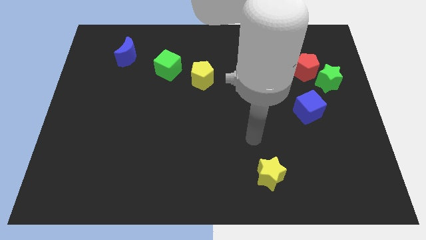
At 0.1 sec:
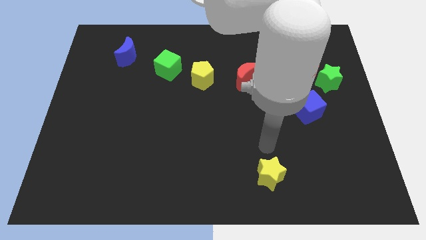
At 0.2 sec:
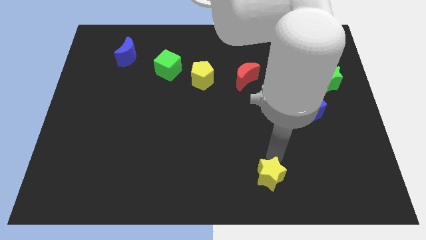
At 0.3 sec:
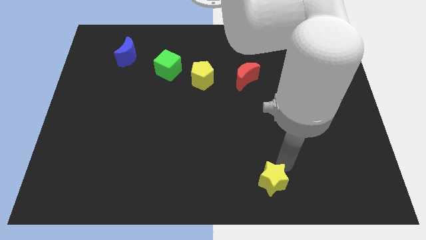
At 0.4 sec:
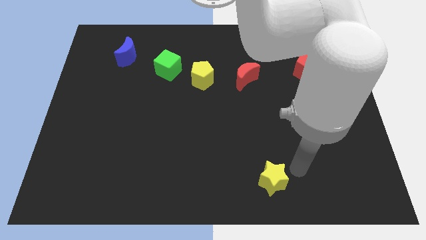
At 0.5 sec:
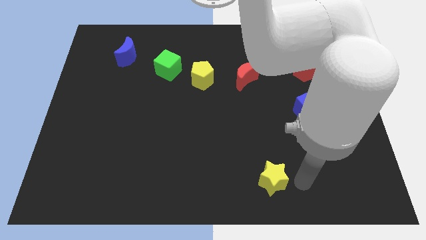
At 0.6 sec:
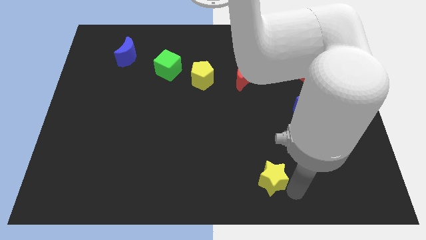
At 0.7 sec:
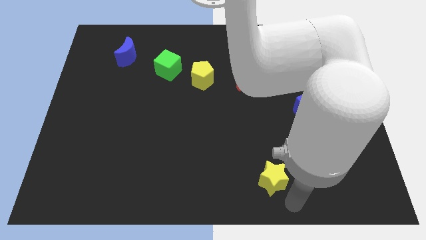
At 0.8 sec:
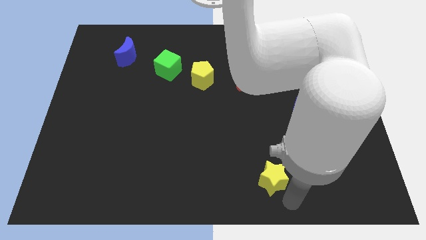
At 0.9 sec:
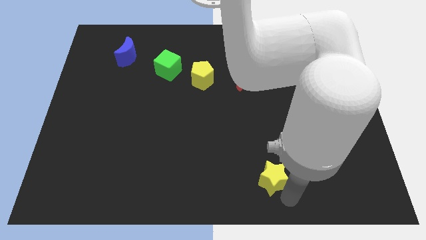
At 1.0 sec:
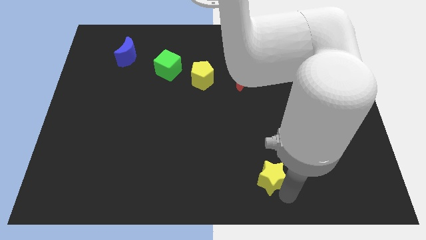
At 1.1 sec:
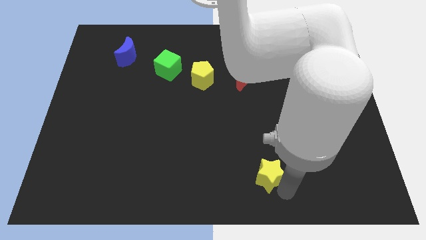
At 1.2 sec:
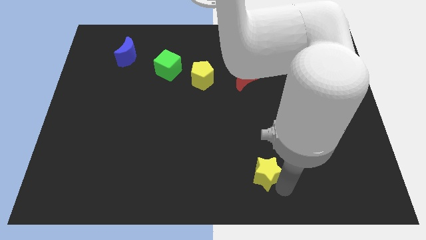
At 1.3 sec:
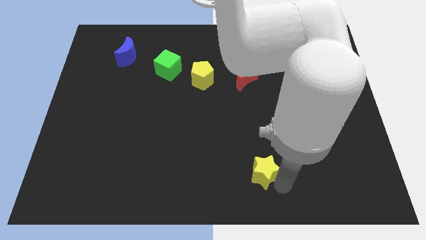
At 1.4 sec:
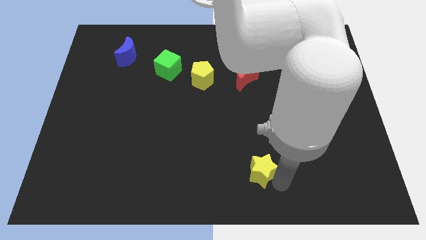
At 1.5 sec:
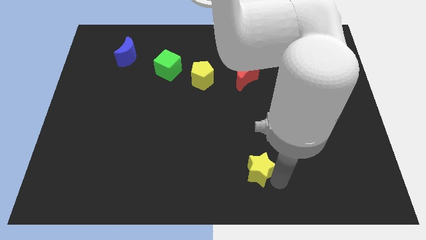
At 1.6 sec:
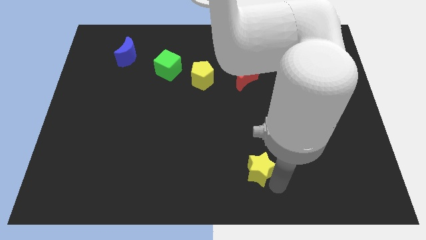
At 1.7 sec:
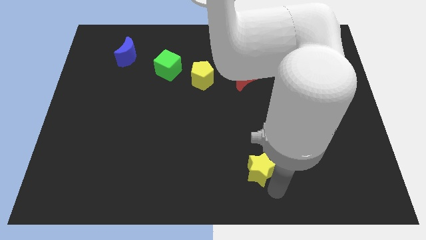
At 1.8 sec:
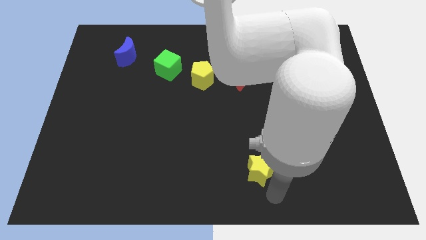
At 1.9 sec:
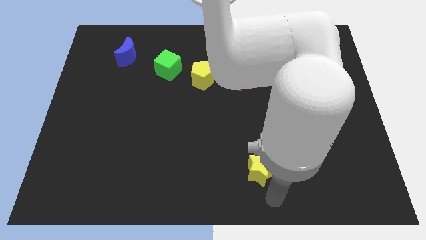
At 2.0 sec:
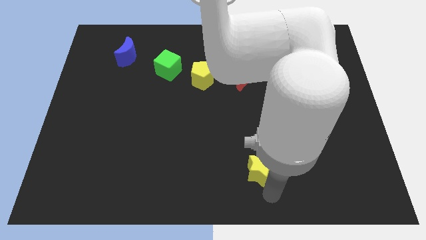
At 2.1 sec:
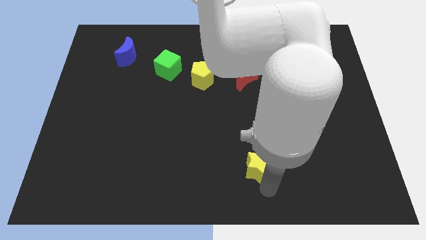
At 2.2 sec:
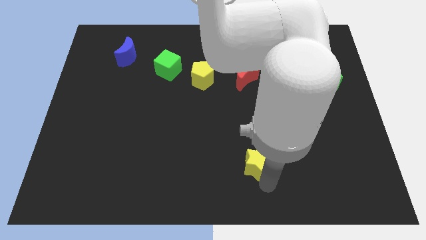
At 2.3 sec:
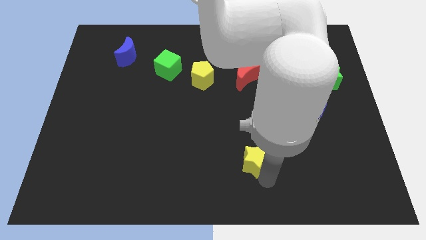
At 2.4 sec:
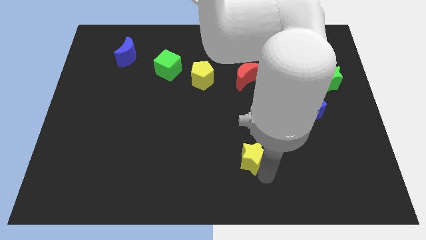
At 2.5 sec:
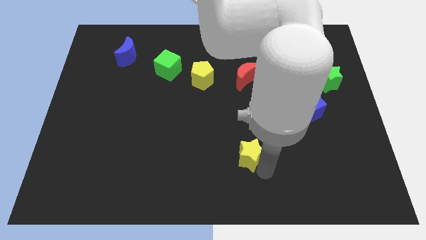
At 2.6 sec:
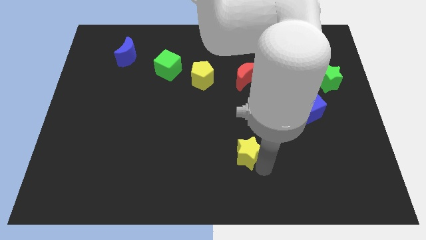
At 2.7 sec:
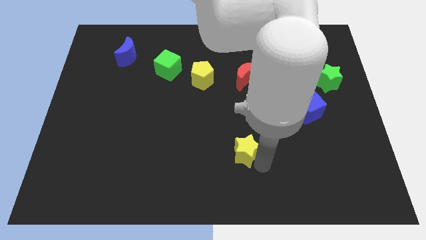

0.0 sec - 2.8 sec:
slide the yellow star upwards and to the left diagonally somewhat

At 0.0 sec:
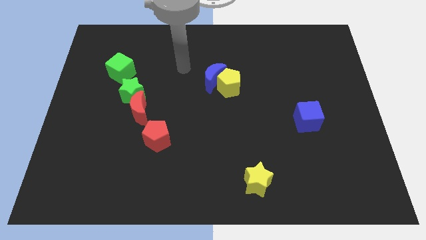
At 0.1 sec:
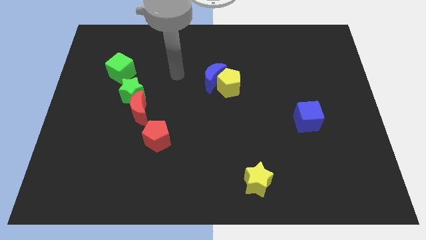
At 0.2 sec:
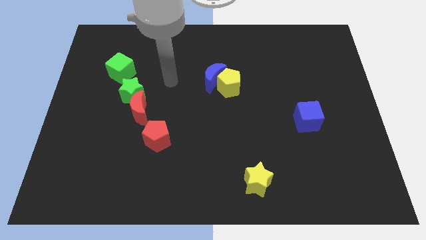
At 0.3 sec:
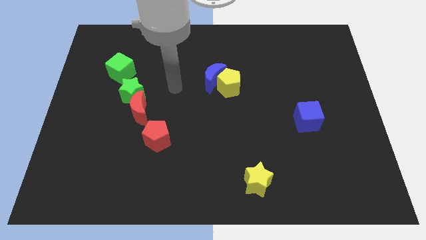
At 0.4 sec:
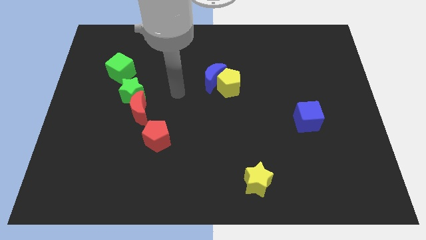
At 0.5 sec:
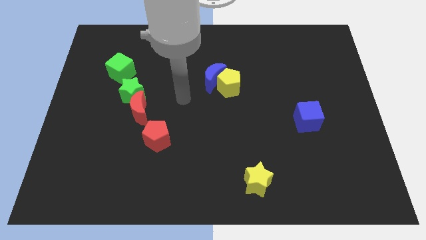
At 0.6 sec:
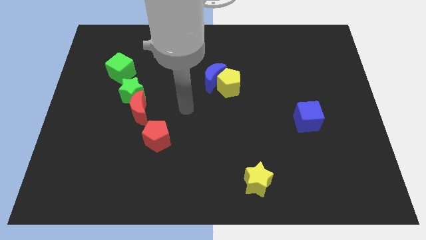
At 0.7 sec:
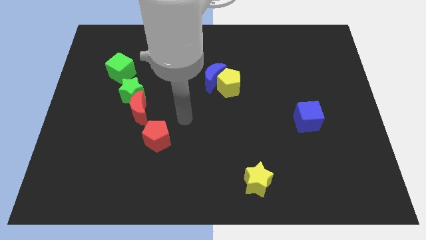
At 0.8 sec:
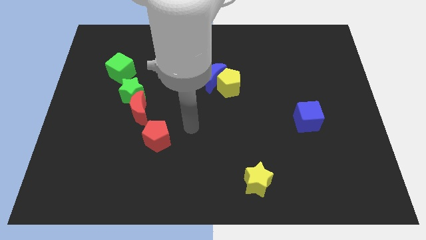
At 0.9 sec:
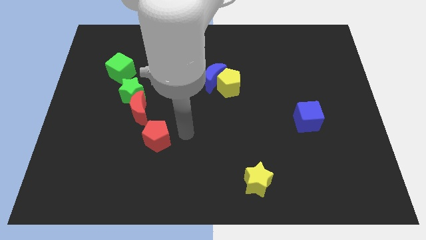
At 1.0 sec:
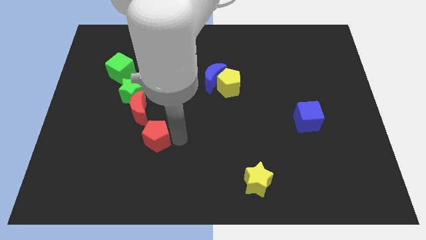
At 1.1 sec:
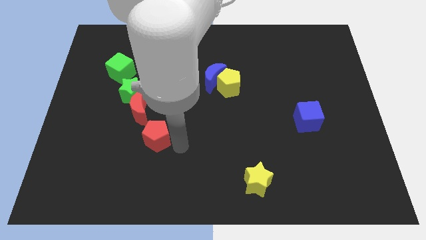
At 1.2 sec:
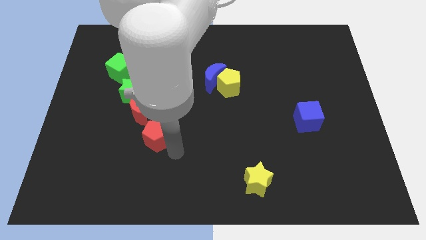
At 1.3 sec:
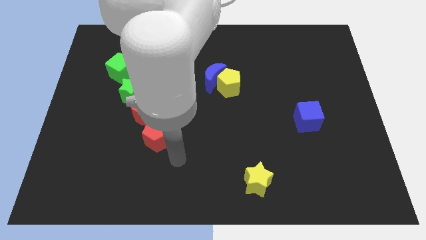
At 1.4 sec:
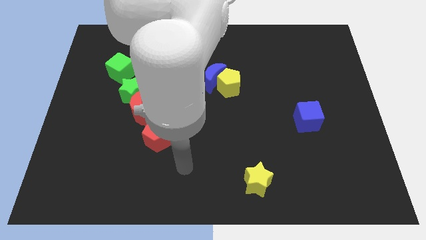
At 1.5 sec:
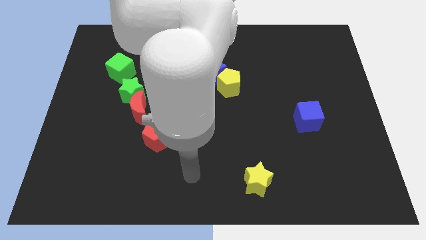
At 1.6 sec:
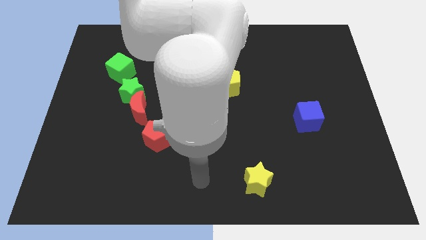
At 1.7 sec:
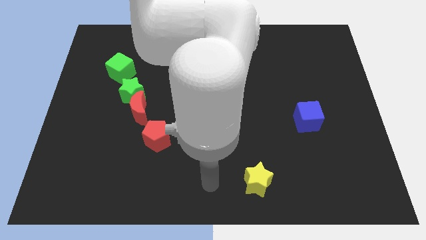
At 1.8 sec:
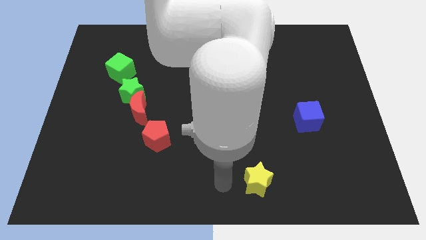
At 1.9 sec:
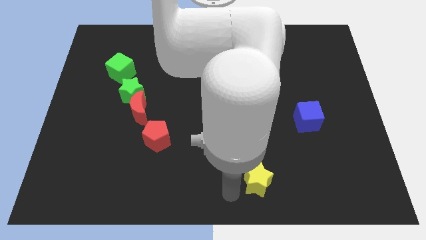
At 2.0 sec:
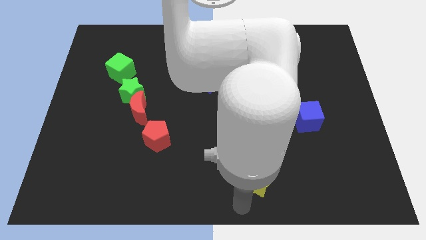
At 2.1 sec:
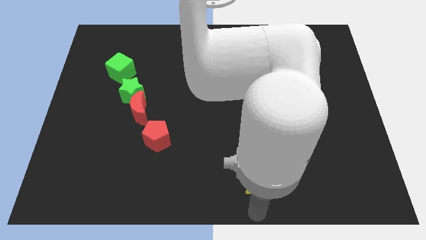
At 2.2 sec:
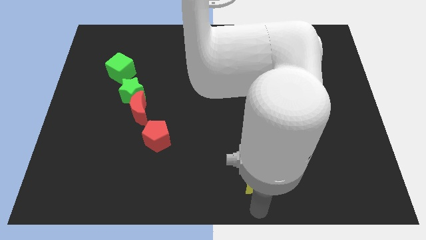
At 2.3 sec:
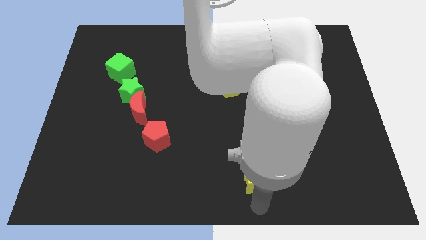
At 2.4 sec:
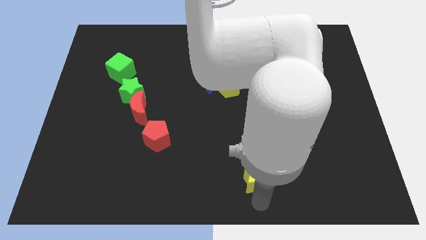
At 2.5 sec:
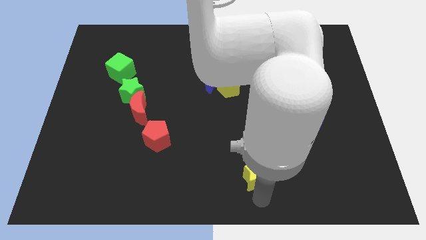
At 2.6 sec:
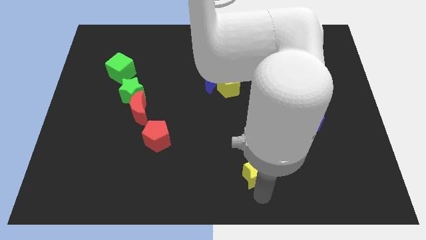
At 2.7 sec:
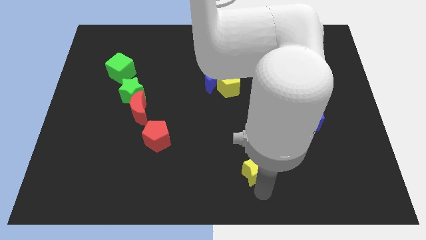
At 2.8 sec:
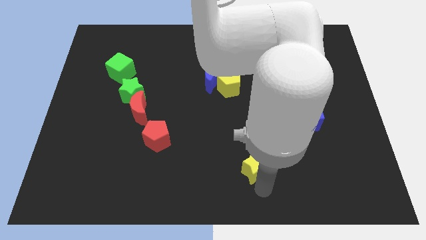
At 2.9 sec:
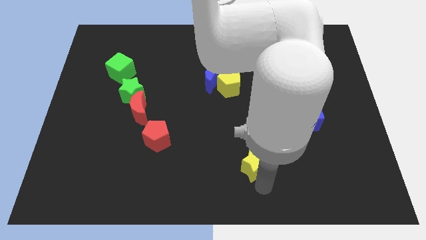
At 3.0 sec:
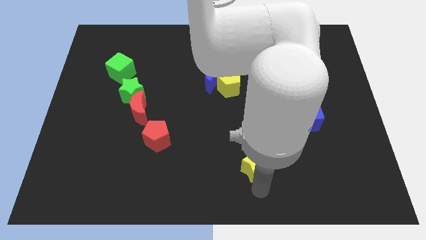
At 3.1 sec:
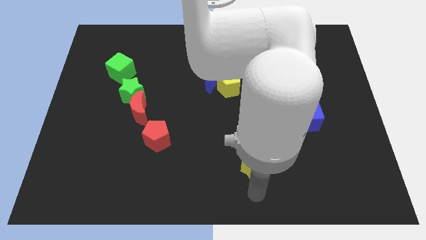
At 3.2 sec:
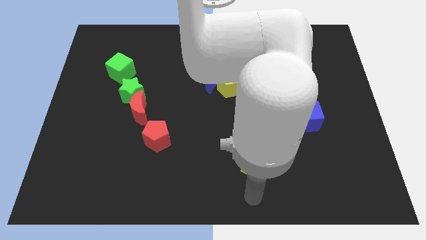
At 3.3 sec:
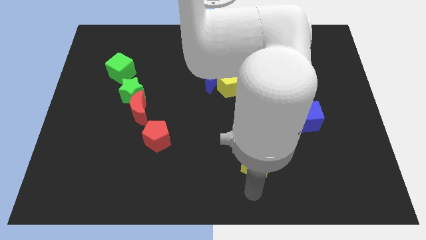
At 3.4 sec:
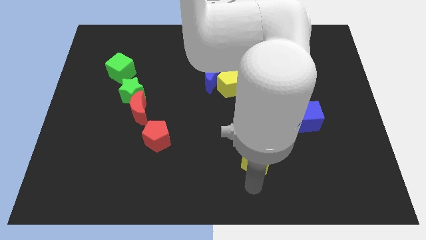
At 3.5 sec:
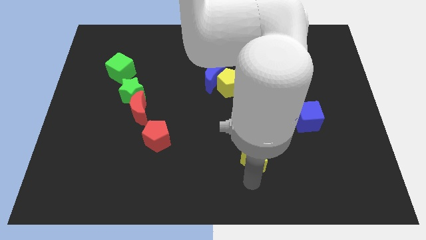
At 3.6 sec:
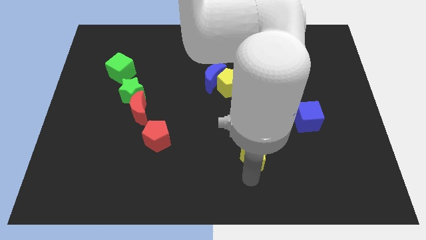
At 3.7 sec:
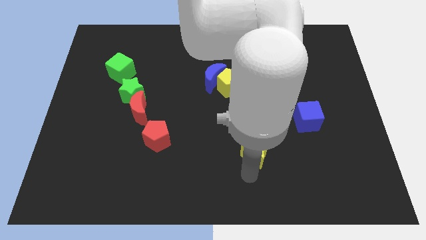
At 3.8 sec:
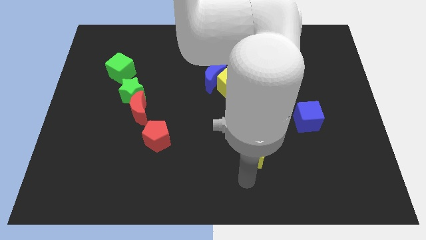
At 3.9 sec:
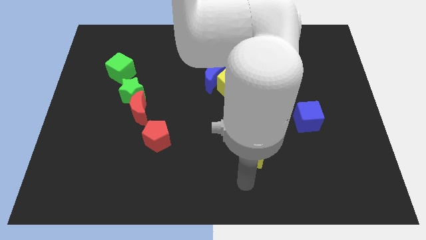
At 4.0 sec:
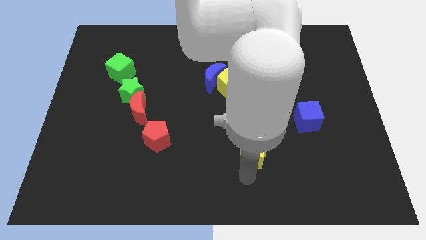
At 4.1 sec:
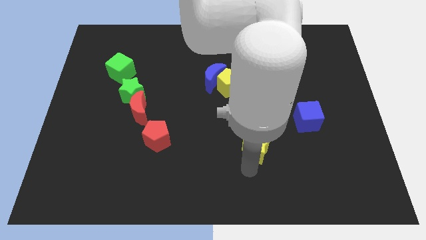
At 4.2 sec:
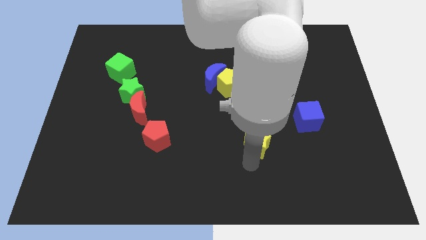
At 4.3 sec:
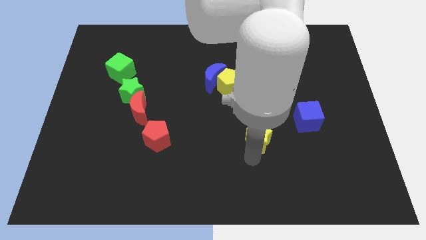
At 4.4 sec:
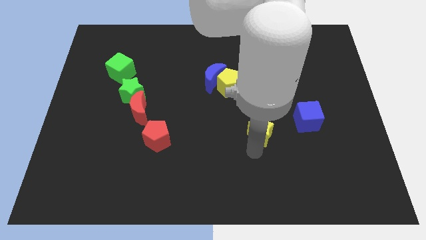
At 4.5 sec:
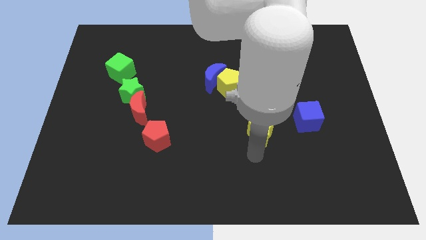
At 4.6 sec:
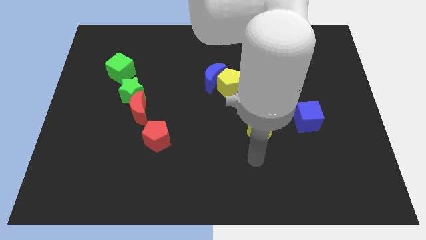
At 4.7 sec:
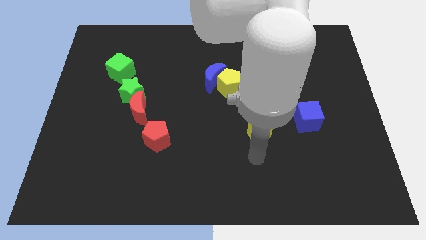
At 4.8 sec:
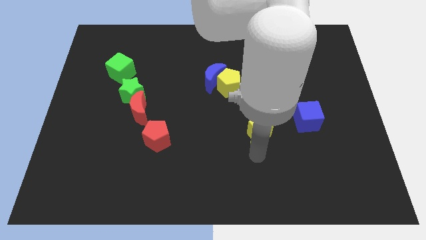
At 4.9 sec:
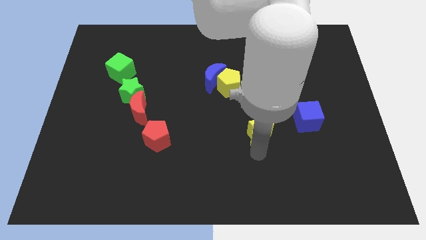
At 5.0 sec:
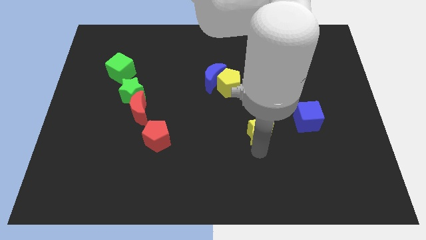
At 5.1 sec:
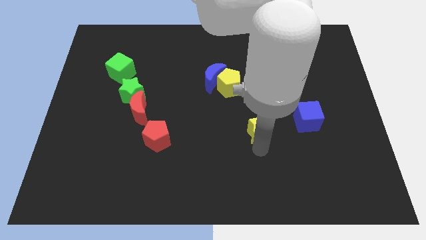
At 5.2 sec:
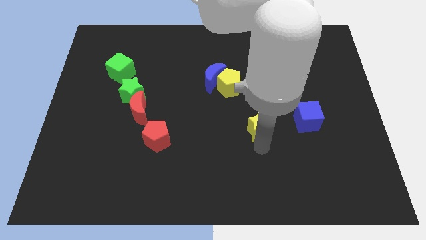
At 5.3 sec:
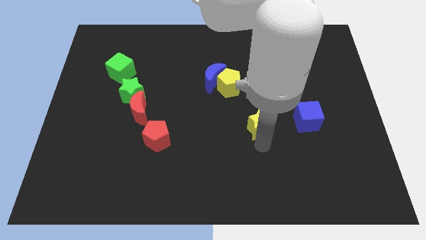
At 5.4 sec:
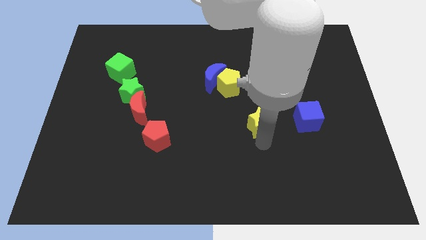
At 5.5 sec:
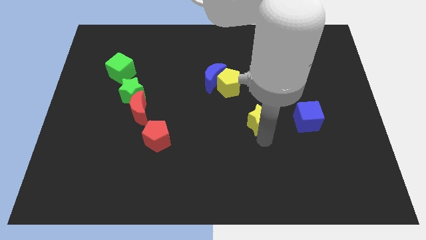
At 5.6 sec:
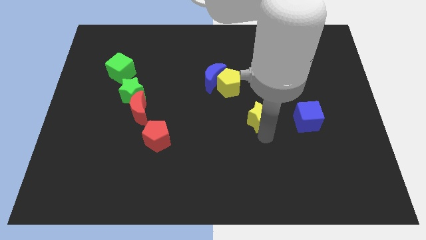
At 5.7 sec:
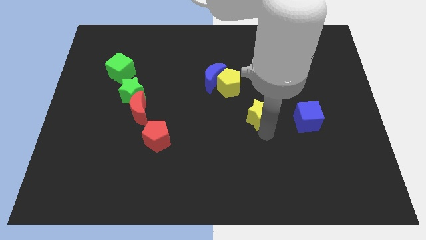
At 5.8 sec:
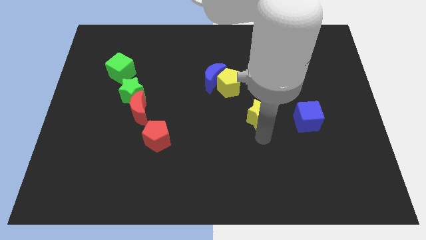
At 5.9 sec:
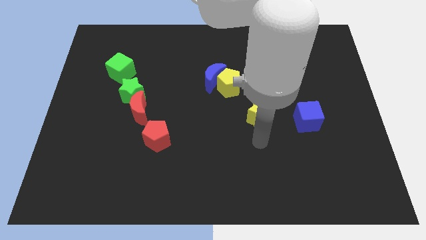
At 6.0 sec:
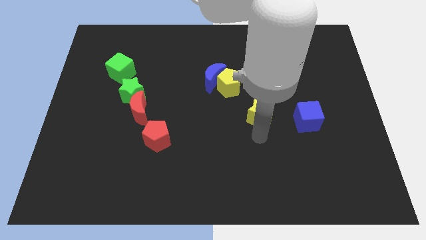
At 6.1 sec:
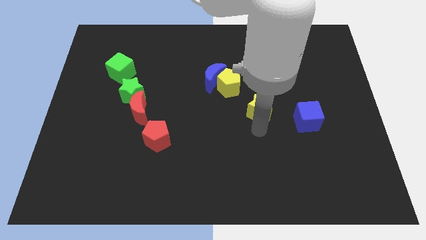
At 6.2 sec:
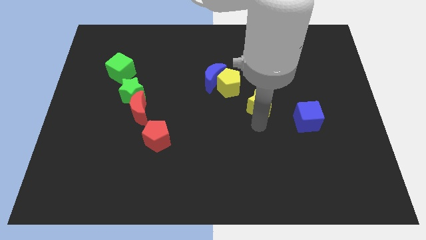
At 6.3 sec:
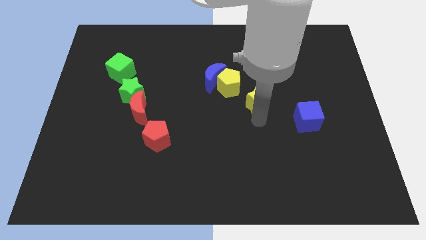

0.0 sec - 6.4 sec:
push the yellow star up
